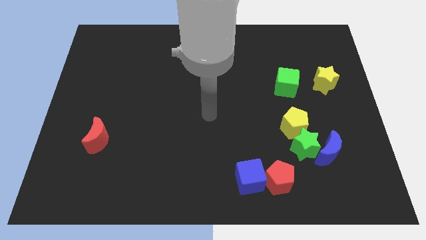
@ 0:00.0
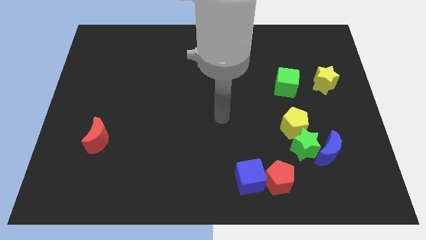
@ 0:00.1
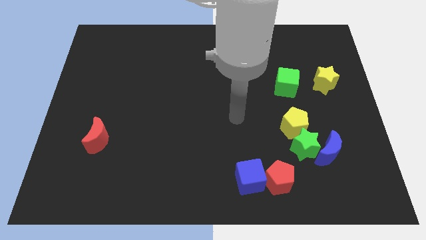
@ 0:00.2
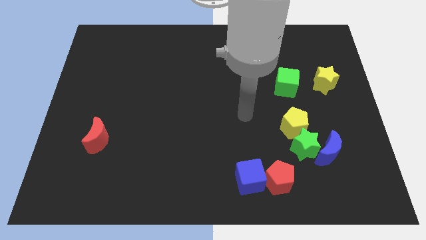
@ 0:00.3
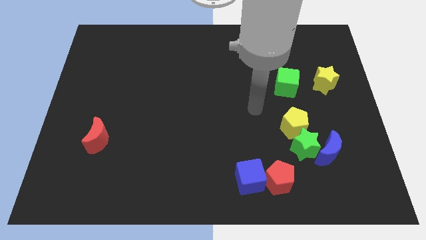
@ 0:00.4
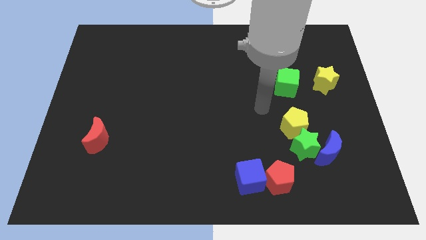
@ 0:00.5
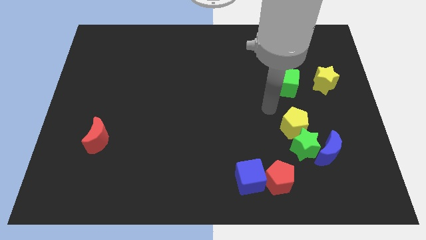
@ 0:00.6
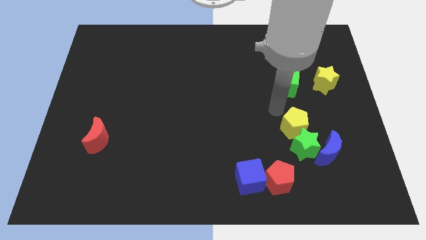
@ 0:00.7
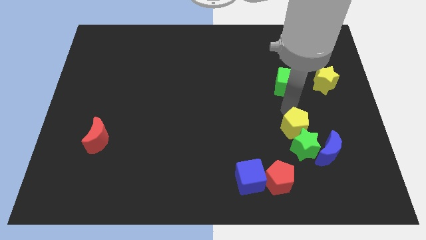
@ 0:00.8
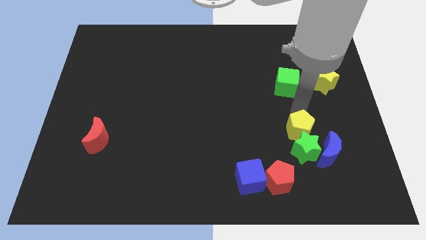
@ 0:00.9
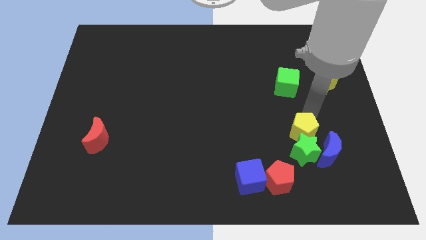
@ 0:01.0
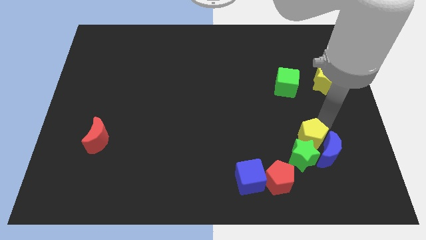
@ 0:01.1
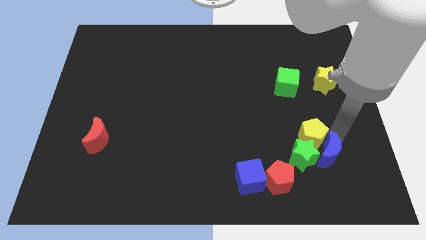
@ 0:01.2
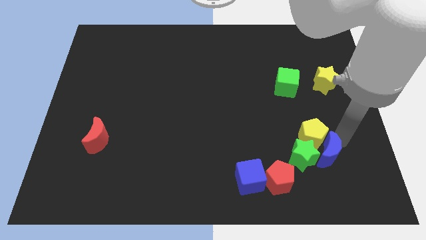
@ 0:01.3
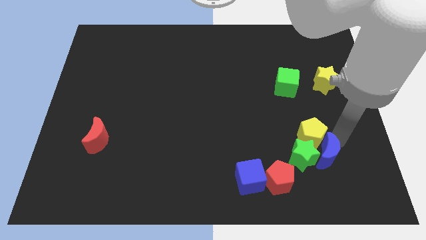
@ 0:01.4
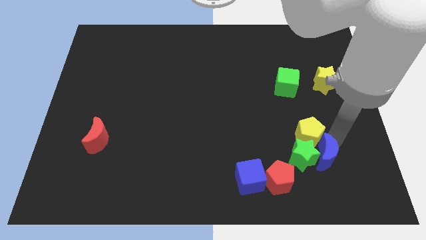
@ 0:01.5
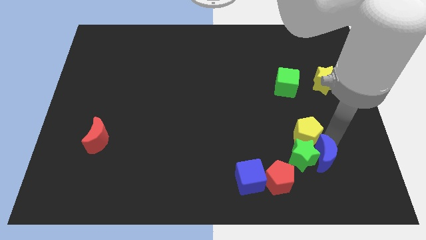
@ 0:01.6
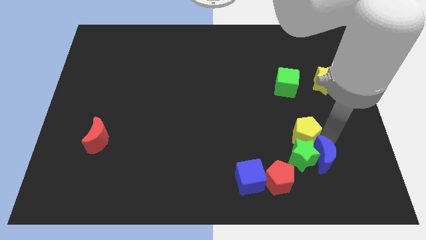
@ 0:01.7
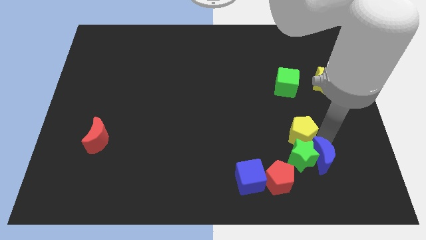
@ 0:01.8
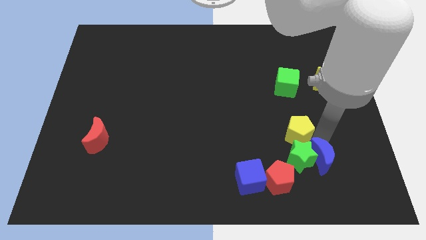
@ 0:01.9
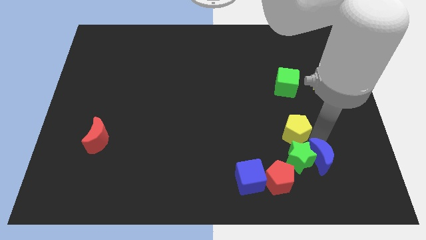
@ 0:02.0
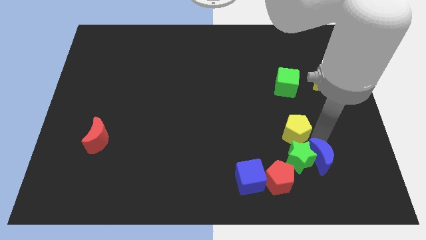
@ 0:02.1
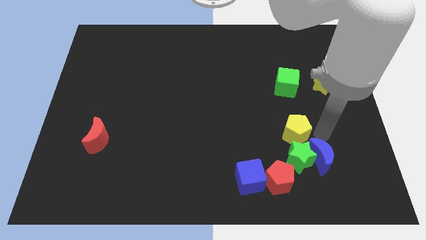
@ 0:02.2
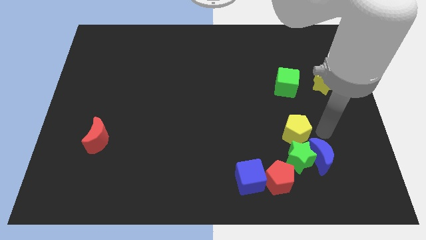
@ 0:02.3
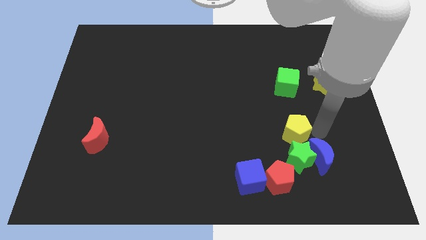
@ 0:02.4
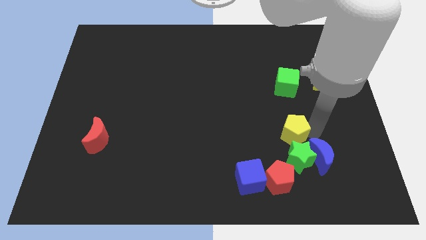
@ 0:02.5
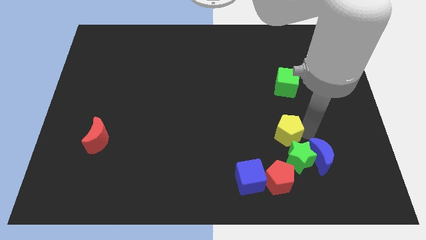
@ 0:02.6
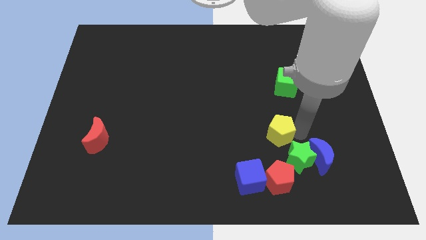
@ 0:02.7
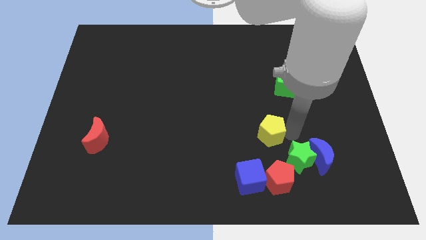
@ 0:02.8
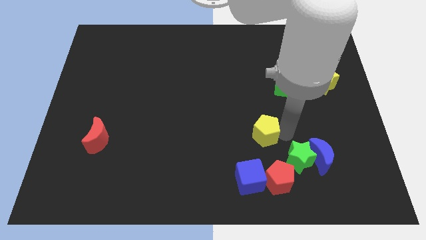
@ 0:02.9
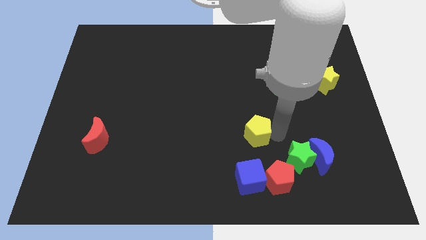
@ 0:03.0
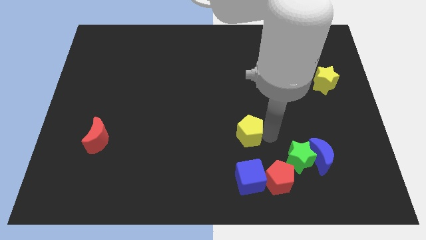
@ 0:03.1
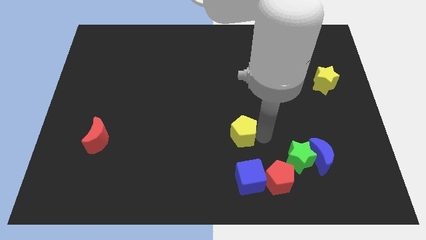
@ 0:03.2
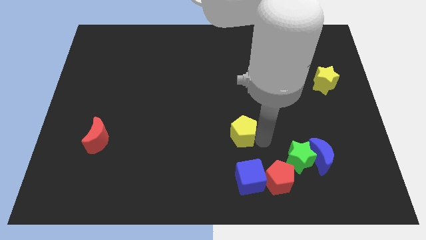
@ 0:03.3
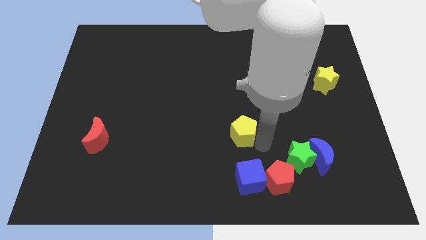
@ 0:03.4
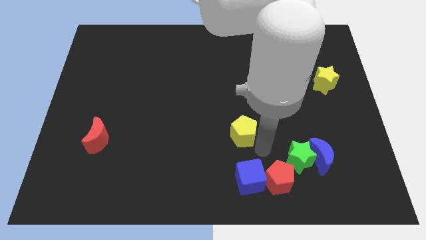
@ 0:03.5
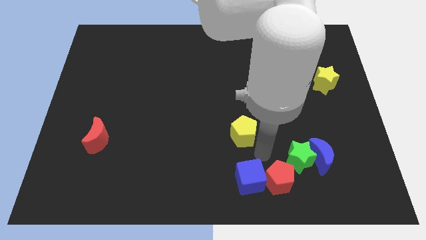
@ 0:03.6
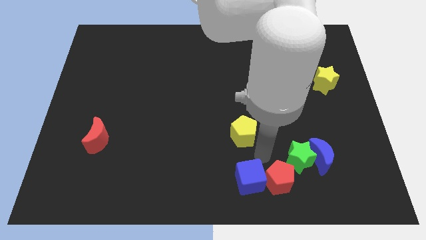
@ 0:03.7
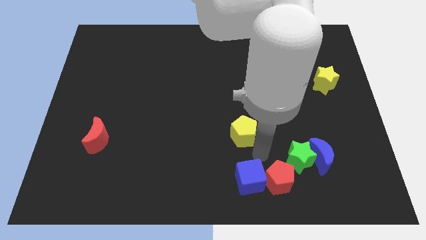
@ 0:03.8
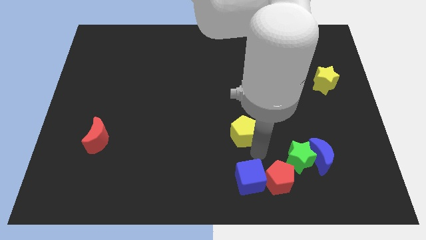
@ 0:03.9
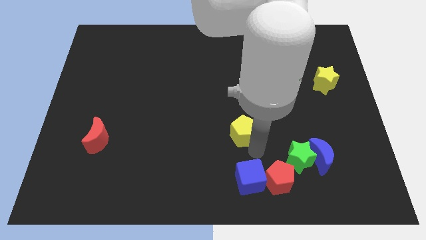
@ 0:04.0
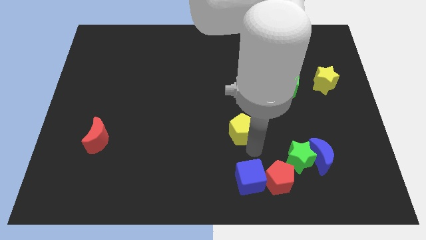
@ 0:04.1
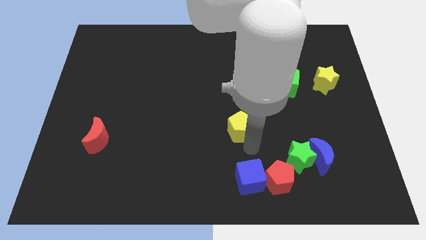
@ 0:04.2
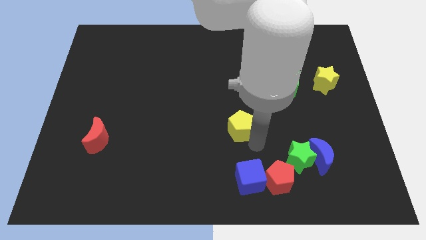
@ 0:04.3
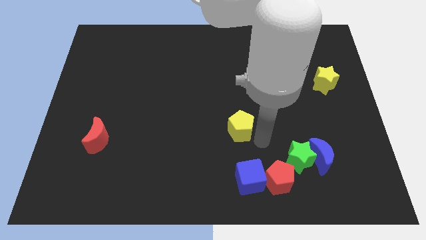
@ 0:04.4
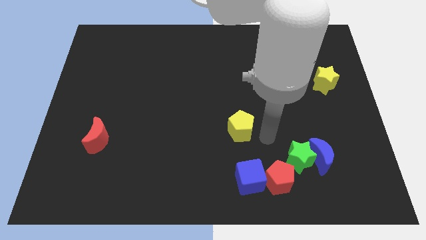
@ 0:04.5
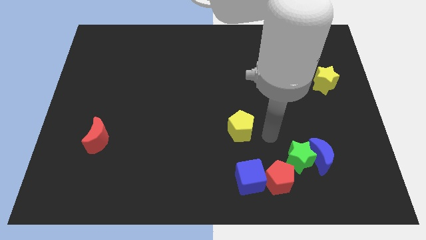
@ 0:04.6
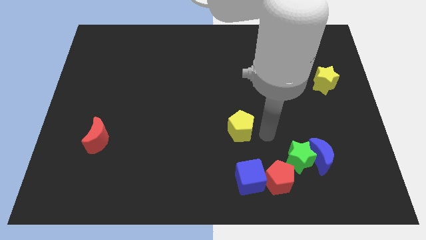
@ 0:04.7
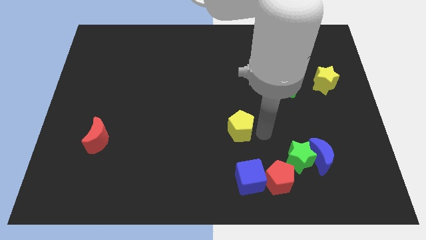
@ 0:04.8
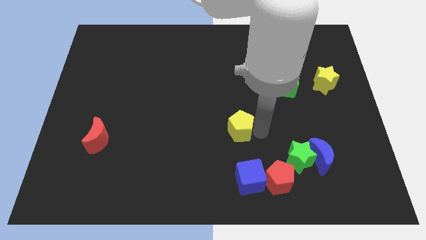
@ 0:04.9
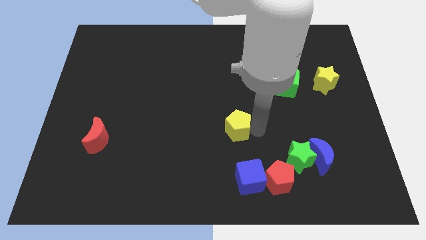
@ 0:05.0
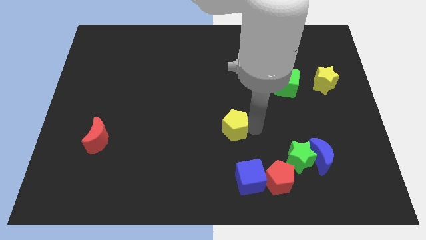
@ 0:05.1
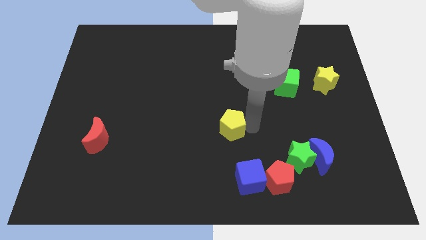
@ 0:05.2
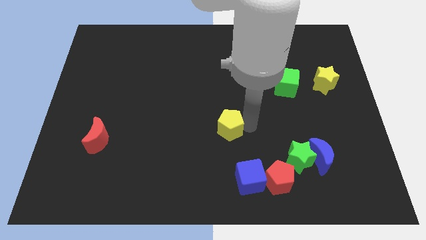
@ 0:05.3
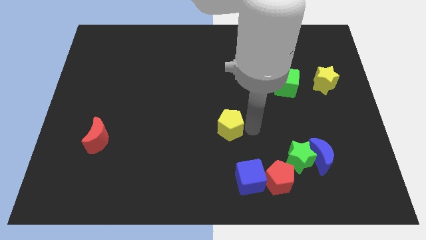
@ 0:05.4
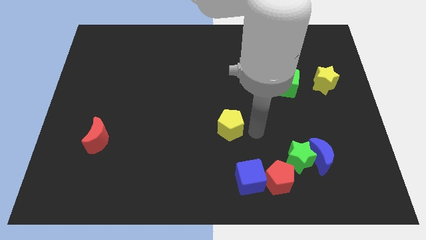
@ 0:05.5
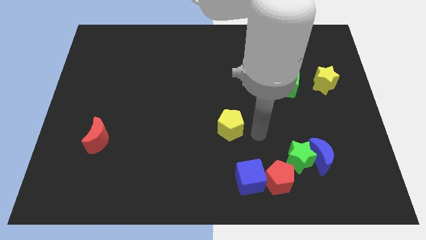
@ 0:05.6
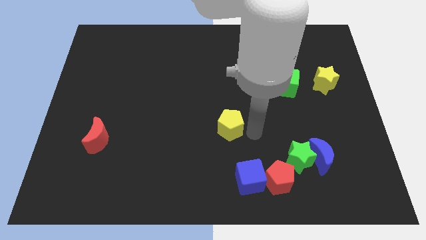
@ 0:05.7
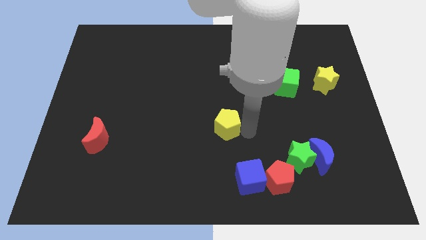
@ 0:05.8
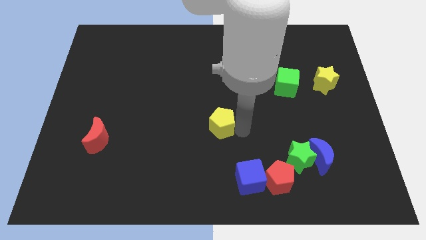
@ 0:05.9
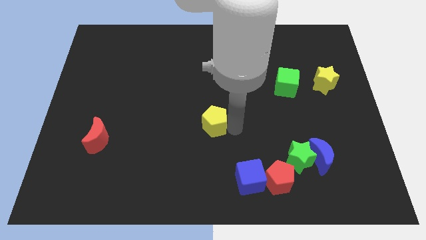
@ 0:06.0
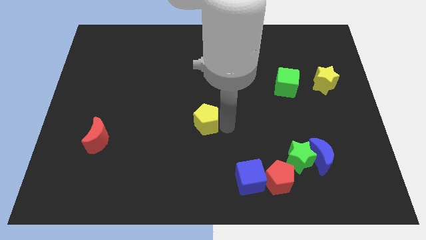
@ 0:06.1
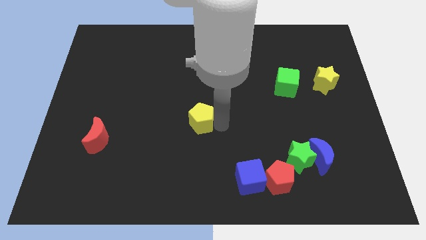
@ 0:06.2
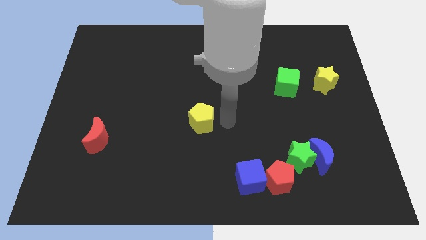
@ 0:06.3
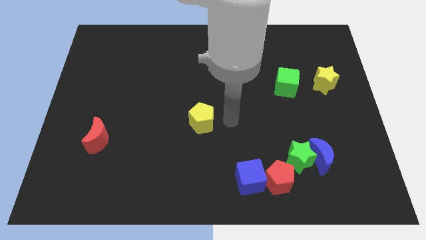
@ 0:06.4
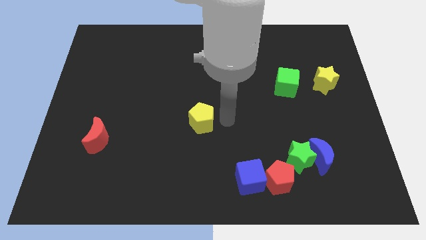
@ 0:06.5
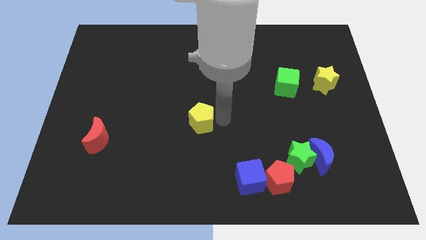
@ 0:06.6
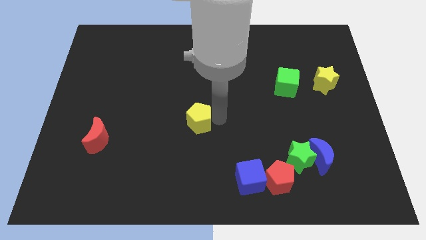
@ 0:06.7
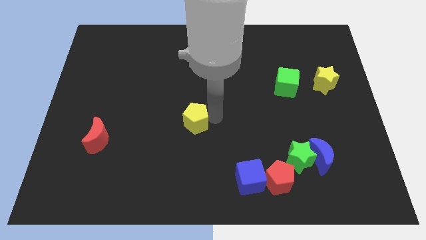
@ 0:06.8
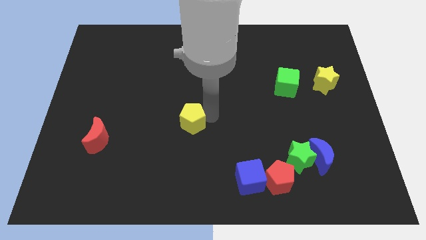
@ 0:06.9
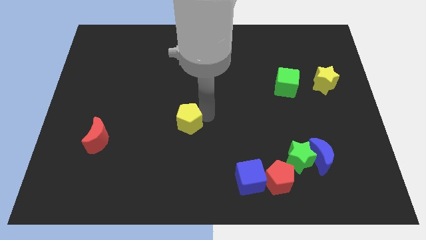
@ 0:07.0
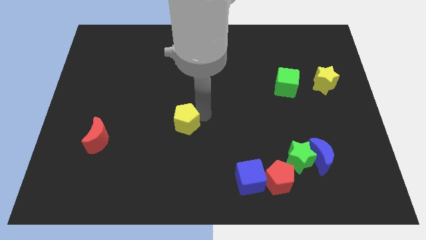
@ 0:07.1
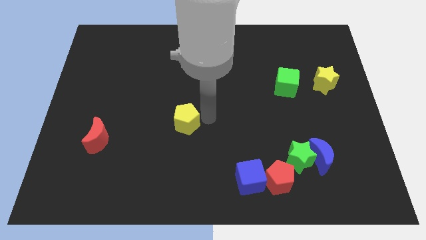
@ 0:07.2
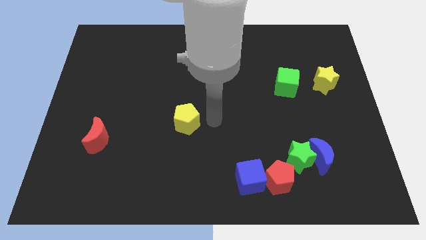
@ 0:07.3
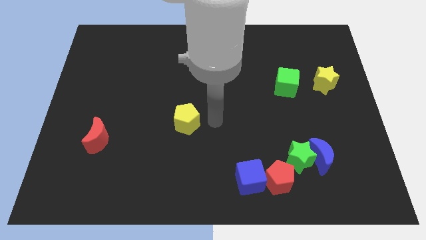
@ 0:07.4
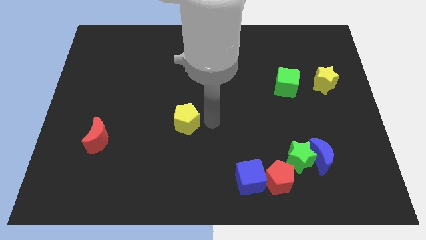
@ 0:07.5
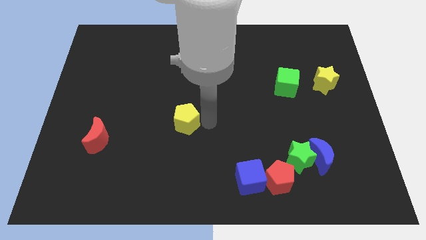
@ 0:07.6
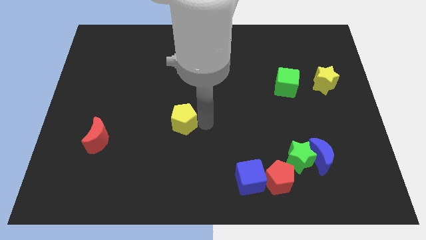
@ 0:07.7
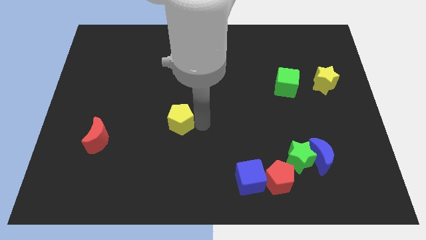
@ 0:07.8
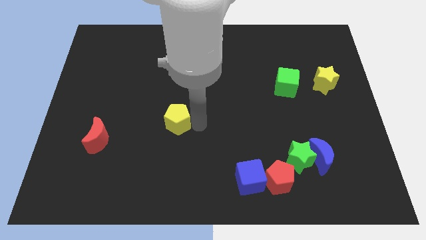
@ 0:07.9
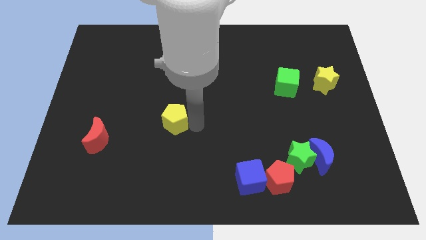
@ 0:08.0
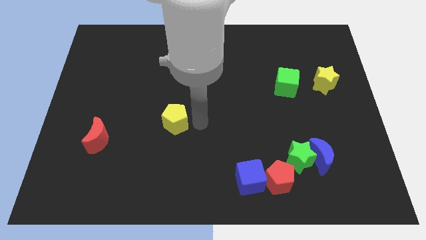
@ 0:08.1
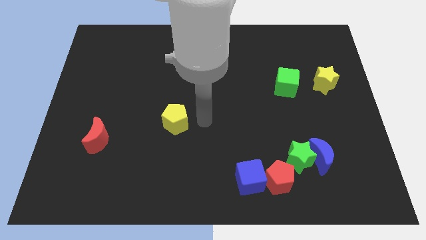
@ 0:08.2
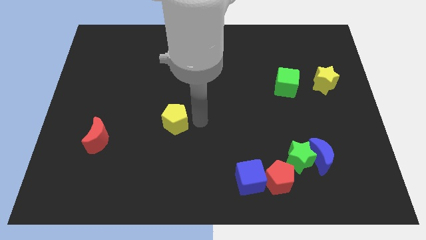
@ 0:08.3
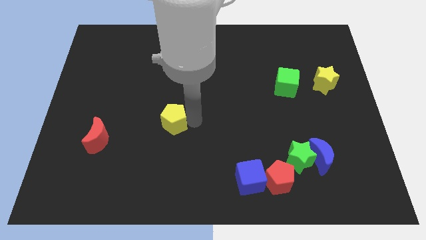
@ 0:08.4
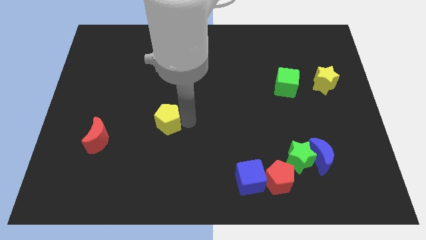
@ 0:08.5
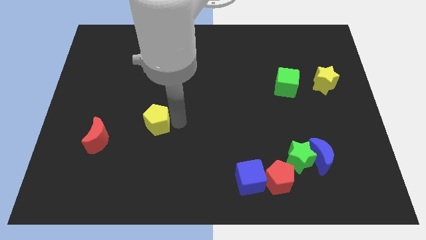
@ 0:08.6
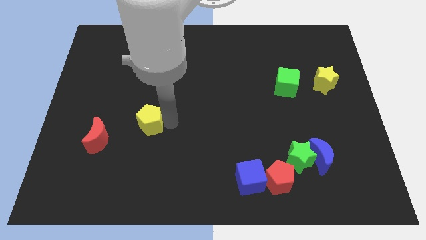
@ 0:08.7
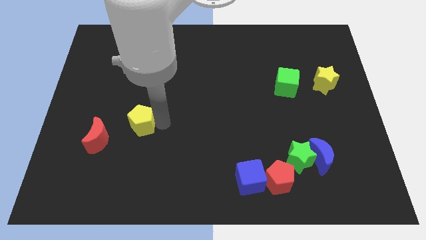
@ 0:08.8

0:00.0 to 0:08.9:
move the yellow pentagon to the top right side of the red moon
